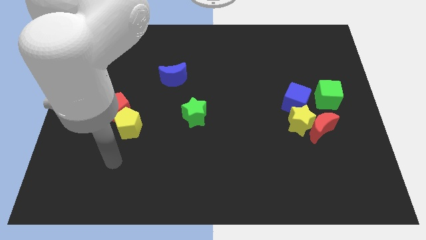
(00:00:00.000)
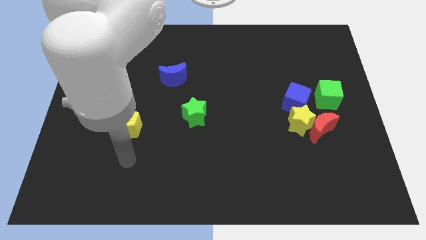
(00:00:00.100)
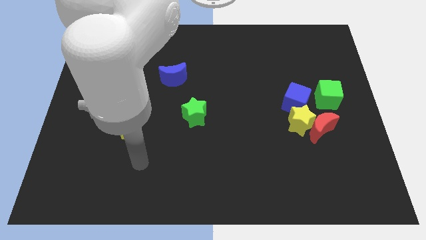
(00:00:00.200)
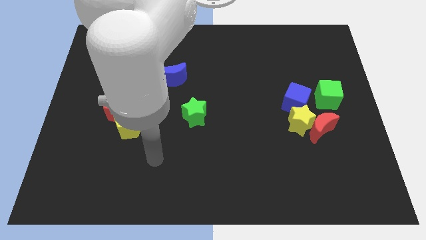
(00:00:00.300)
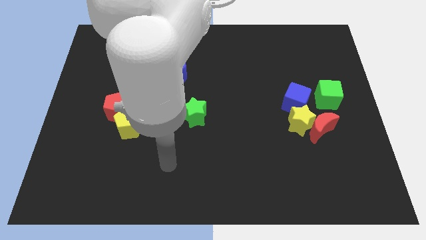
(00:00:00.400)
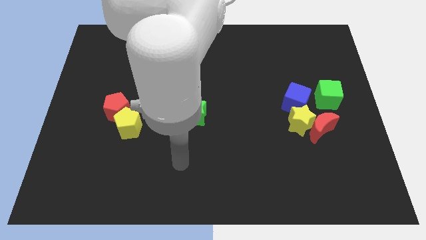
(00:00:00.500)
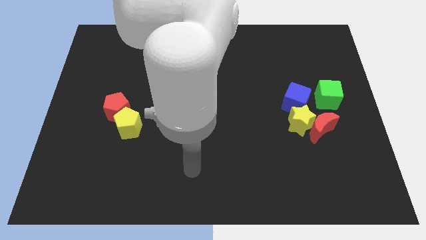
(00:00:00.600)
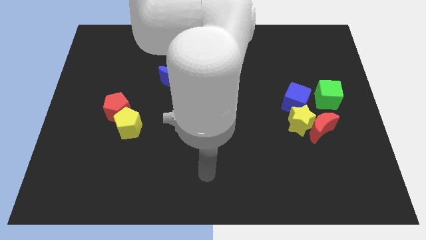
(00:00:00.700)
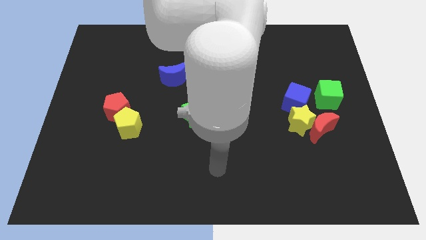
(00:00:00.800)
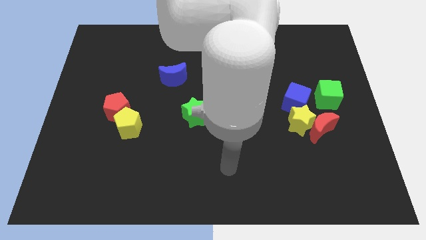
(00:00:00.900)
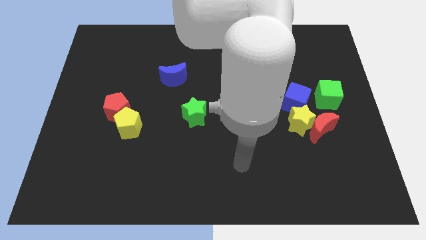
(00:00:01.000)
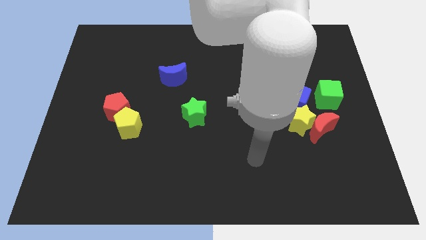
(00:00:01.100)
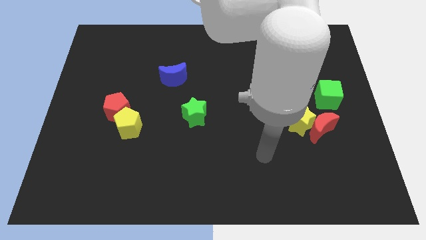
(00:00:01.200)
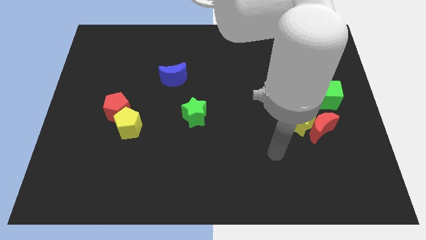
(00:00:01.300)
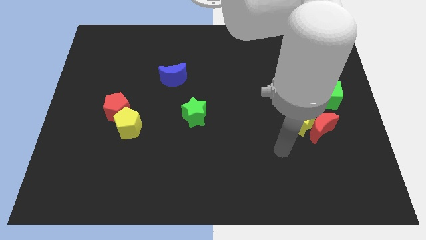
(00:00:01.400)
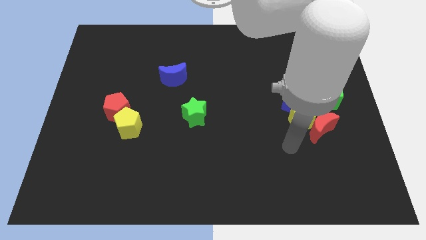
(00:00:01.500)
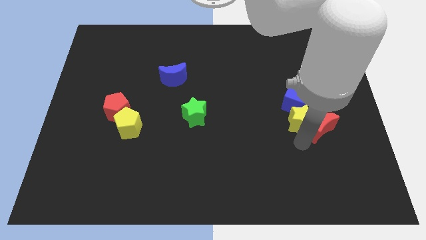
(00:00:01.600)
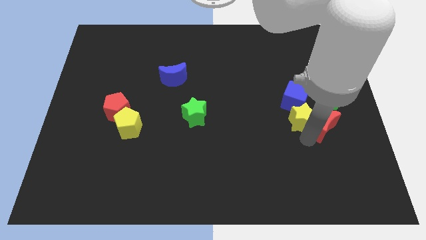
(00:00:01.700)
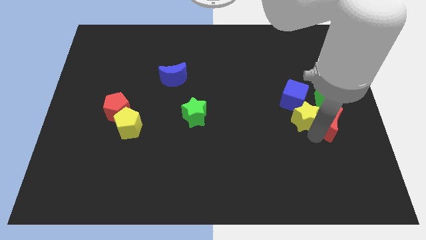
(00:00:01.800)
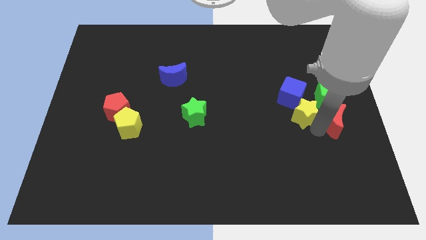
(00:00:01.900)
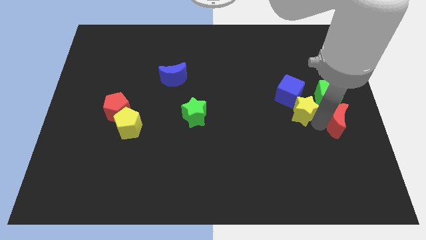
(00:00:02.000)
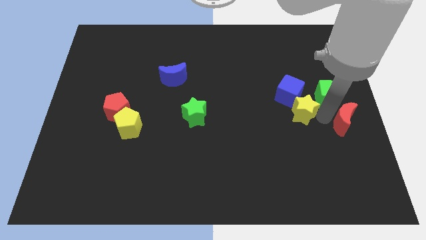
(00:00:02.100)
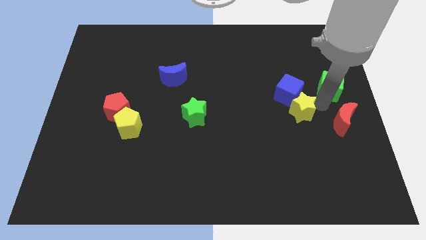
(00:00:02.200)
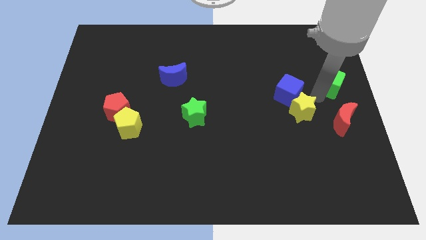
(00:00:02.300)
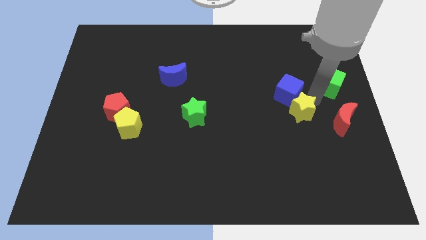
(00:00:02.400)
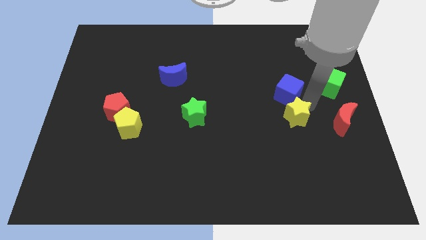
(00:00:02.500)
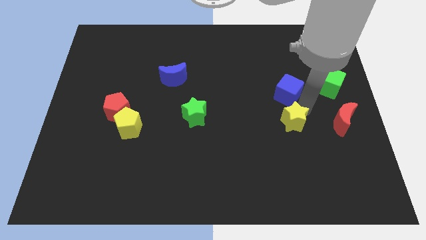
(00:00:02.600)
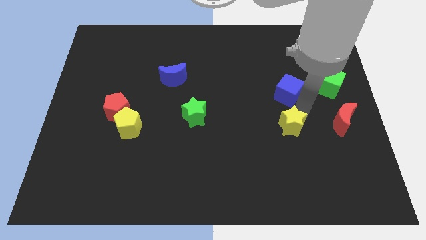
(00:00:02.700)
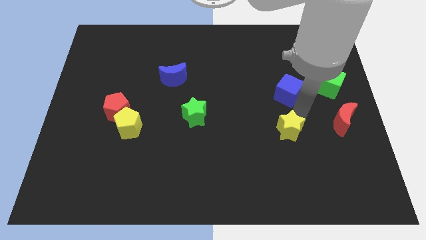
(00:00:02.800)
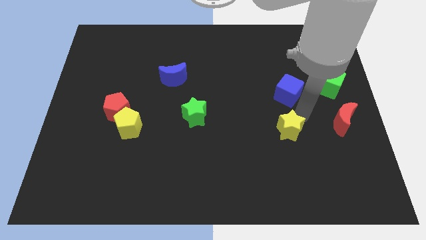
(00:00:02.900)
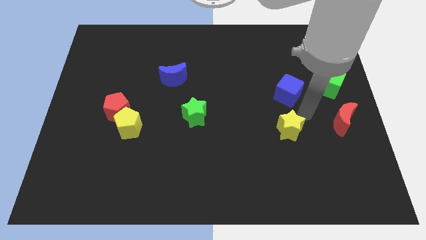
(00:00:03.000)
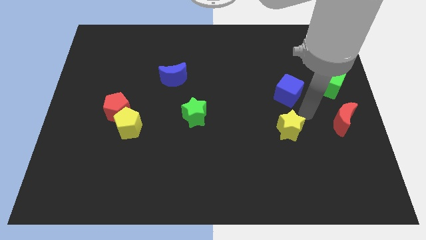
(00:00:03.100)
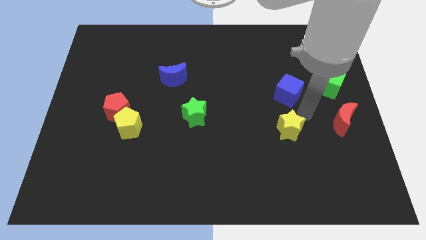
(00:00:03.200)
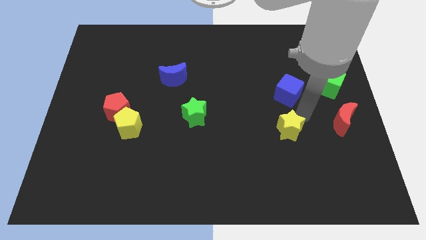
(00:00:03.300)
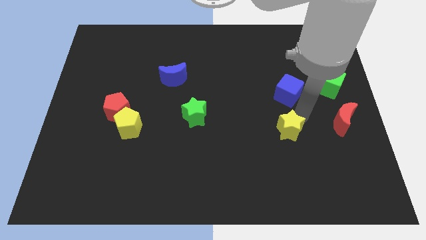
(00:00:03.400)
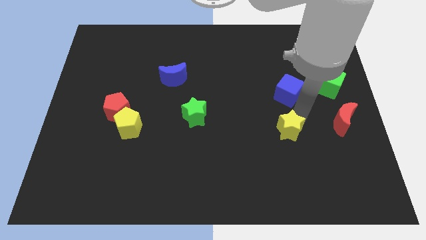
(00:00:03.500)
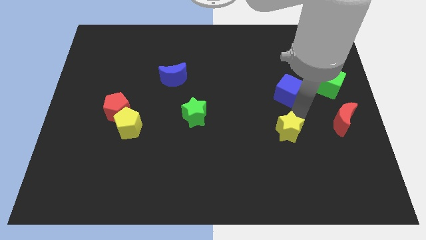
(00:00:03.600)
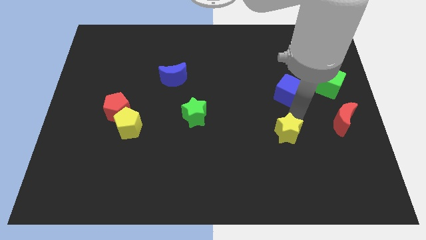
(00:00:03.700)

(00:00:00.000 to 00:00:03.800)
move the yellow star away from the red moon and blue cube

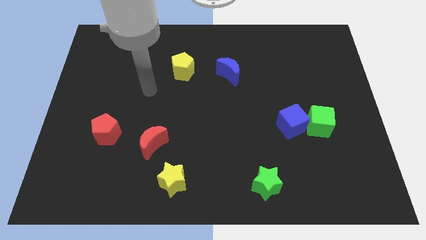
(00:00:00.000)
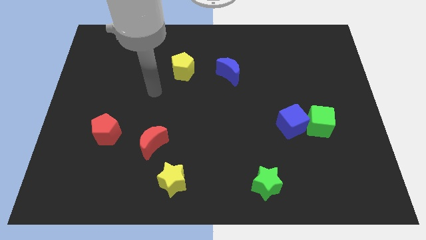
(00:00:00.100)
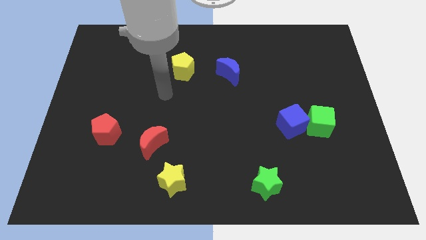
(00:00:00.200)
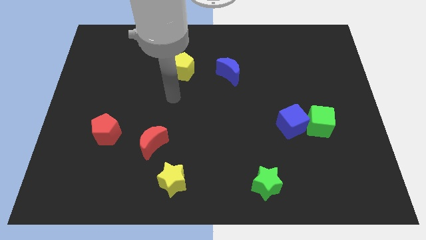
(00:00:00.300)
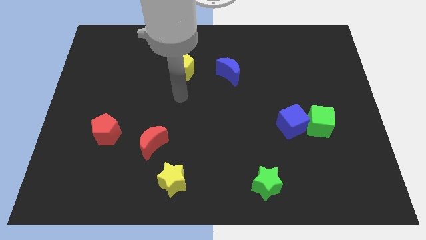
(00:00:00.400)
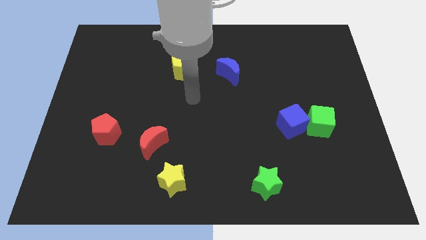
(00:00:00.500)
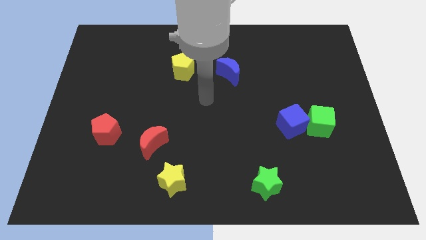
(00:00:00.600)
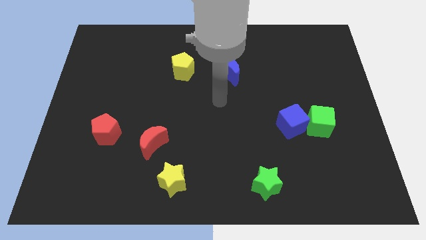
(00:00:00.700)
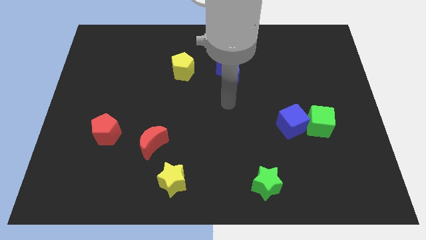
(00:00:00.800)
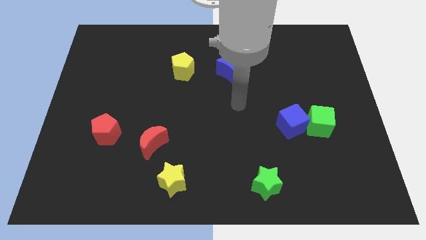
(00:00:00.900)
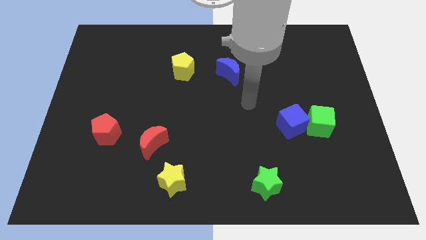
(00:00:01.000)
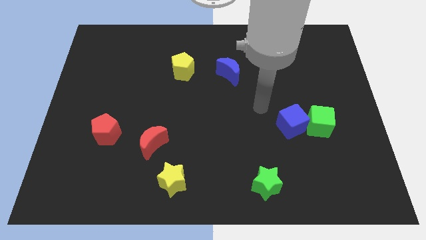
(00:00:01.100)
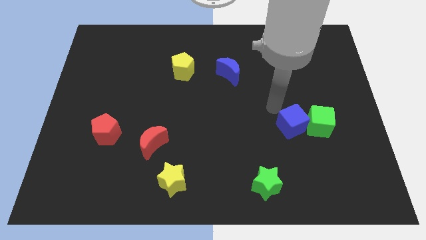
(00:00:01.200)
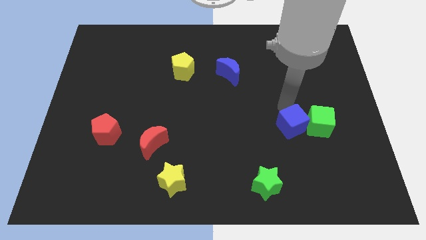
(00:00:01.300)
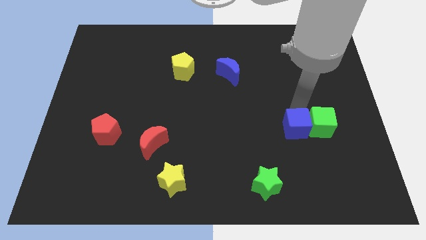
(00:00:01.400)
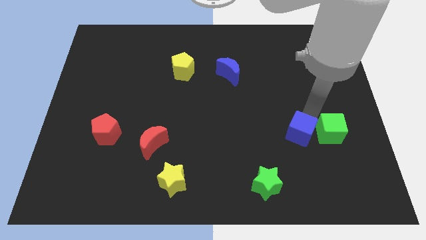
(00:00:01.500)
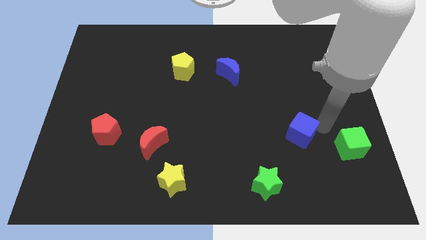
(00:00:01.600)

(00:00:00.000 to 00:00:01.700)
pull the blue cube apart from the green cube

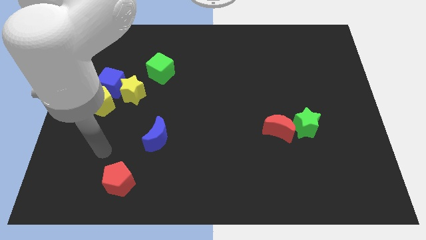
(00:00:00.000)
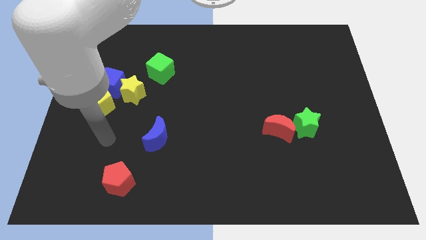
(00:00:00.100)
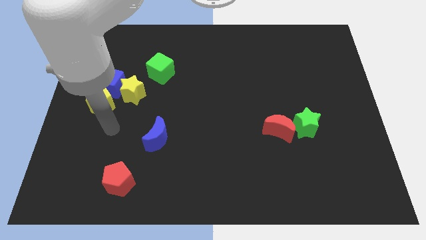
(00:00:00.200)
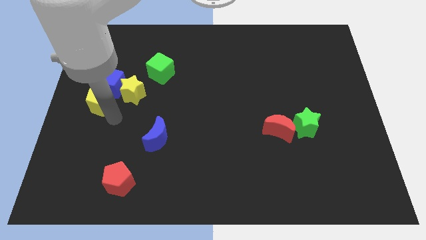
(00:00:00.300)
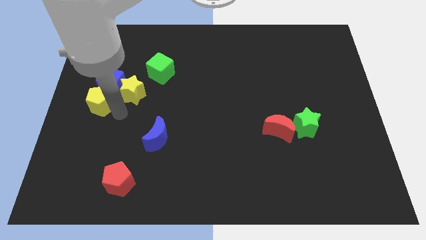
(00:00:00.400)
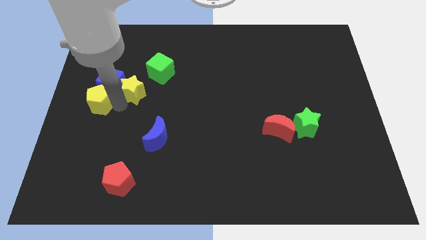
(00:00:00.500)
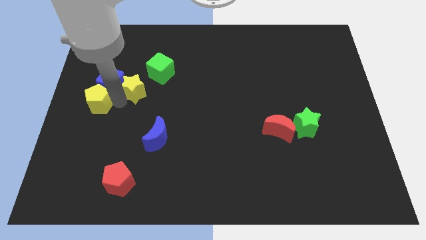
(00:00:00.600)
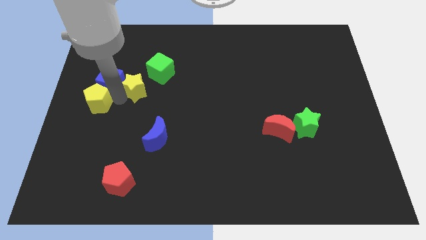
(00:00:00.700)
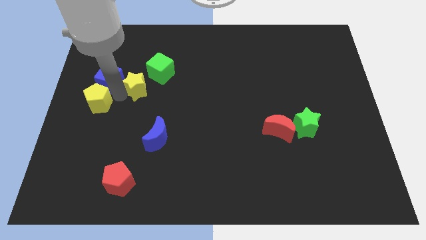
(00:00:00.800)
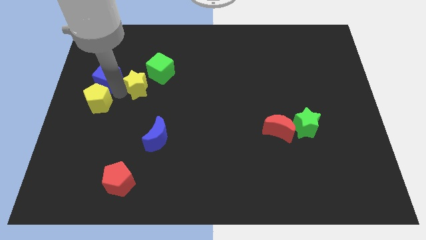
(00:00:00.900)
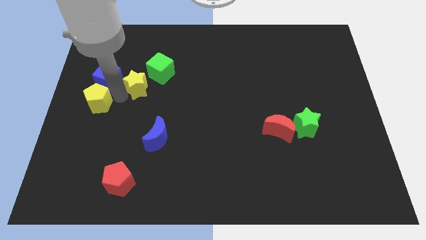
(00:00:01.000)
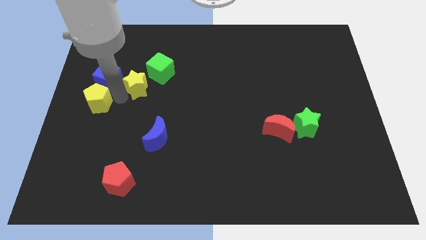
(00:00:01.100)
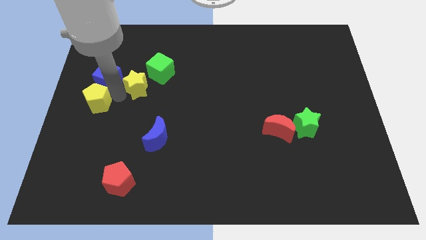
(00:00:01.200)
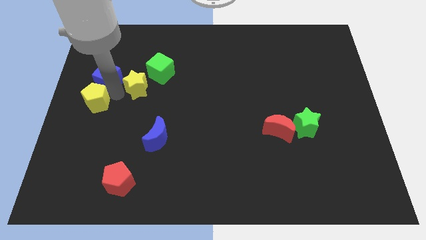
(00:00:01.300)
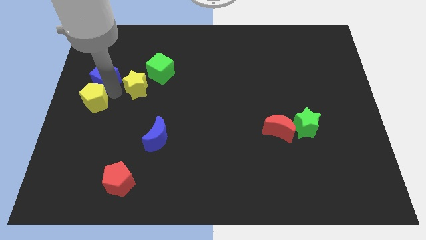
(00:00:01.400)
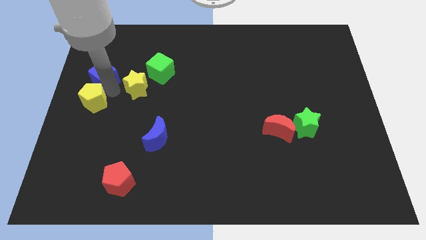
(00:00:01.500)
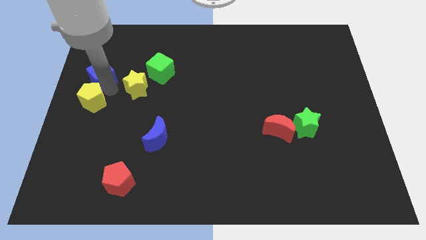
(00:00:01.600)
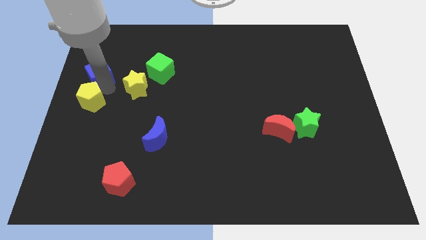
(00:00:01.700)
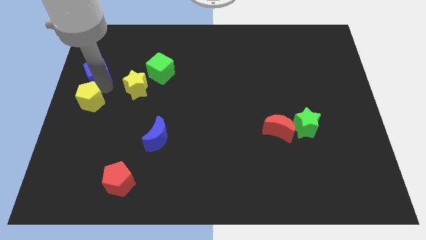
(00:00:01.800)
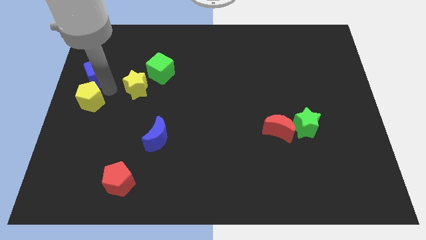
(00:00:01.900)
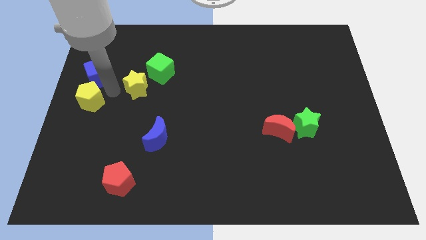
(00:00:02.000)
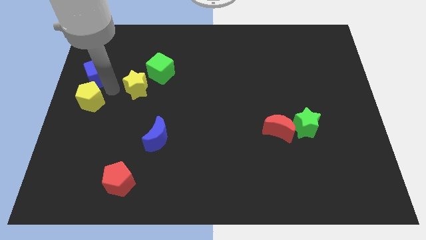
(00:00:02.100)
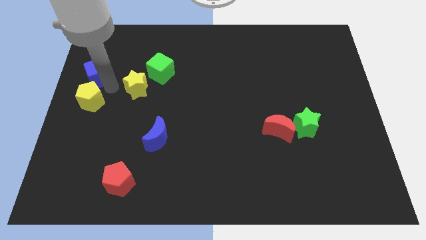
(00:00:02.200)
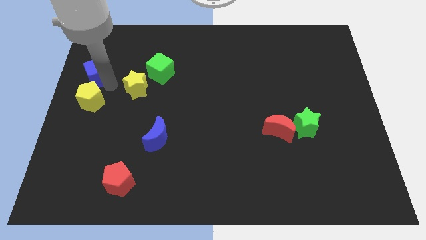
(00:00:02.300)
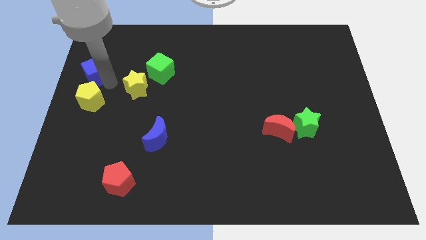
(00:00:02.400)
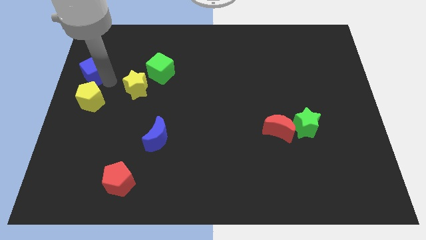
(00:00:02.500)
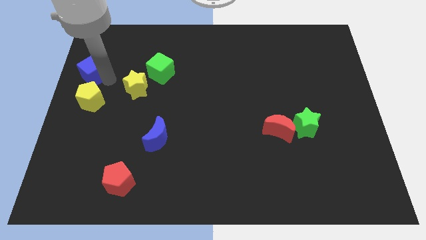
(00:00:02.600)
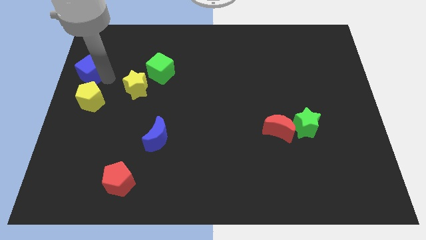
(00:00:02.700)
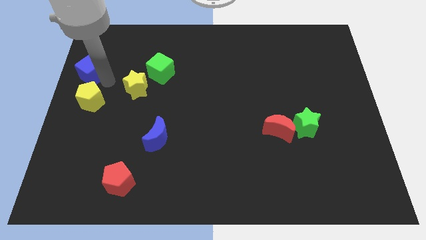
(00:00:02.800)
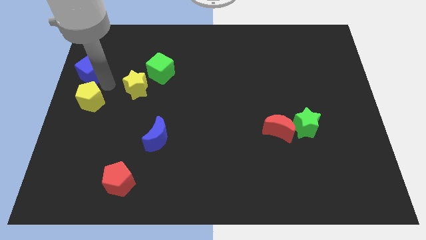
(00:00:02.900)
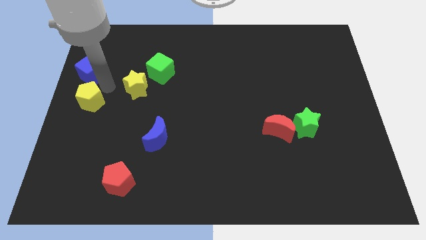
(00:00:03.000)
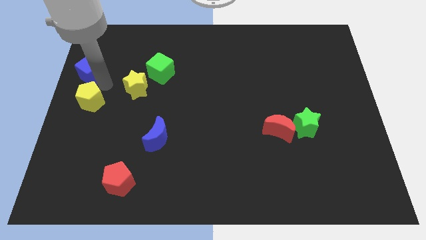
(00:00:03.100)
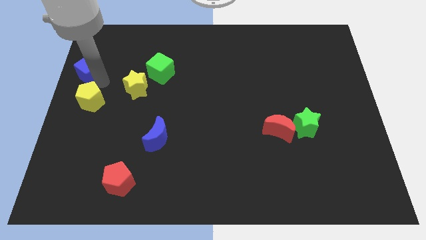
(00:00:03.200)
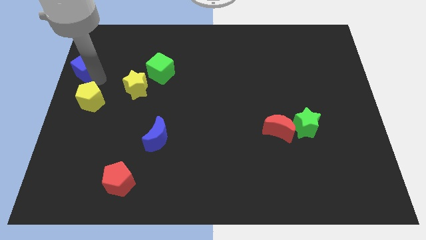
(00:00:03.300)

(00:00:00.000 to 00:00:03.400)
move the blue cube away from the yellow star and yellow pentagon

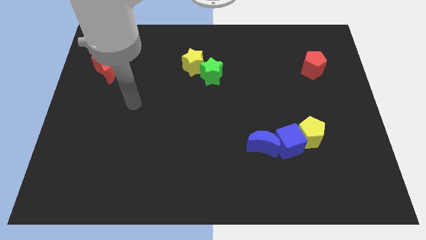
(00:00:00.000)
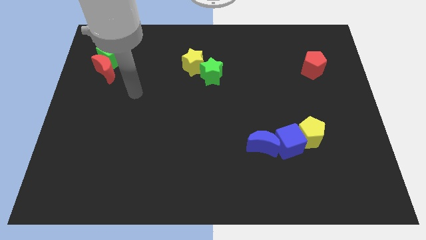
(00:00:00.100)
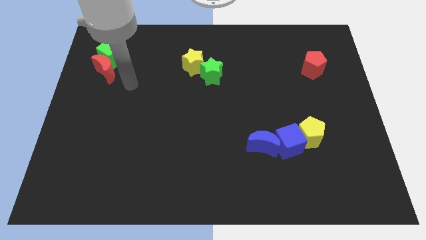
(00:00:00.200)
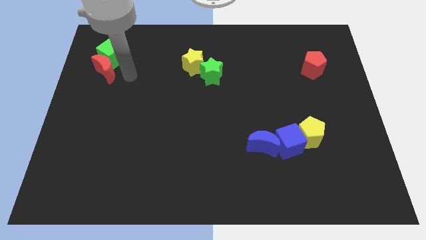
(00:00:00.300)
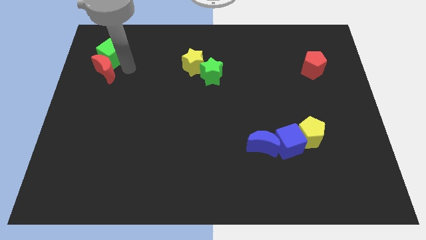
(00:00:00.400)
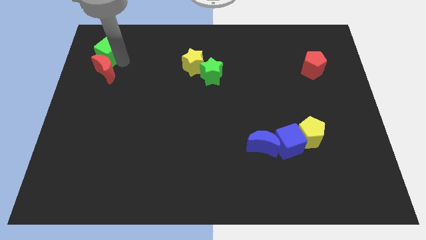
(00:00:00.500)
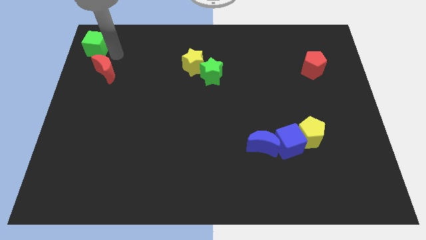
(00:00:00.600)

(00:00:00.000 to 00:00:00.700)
separate the red moon from the green cube
